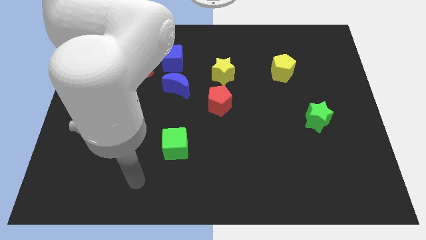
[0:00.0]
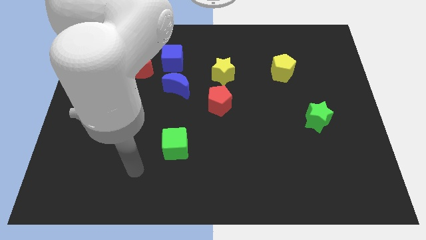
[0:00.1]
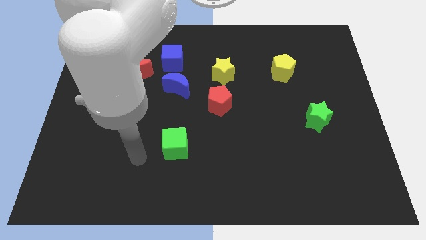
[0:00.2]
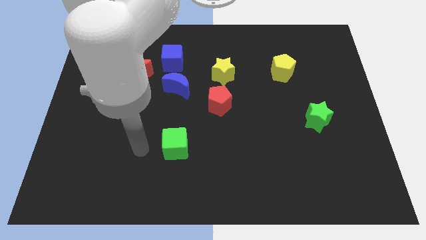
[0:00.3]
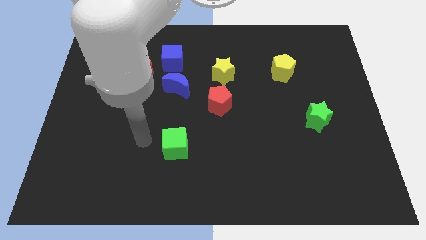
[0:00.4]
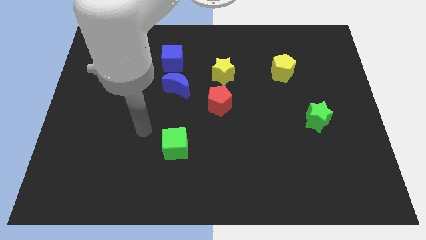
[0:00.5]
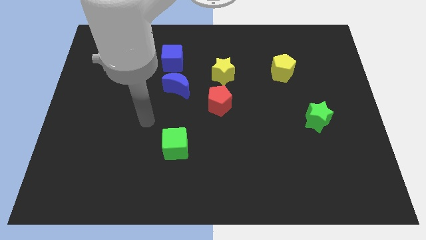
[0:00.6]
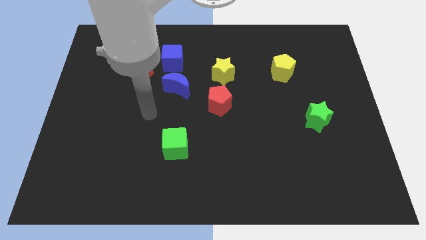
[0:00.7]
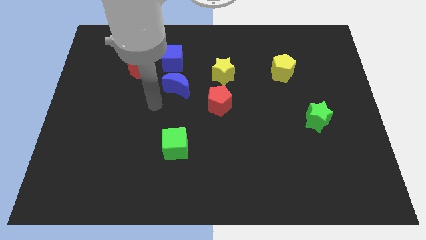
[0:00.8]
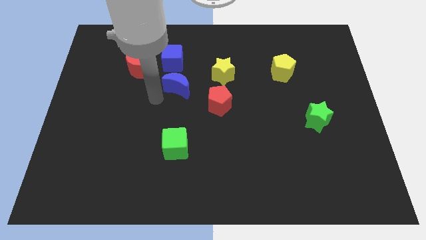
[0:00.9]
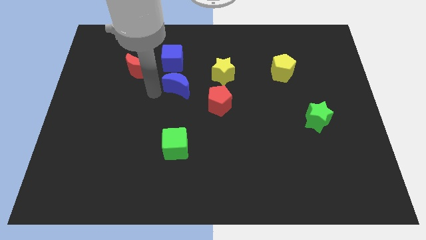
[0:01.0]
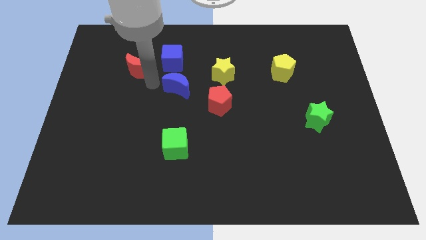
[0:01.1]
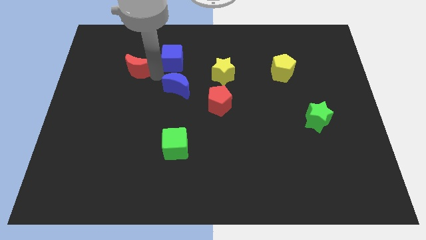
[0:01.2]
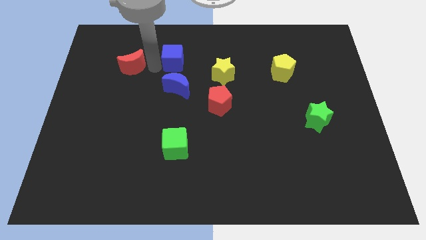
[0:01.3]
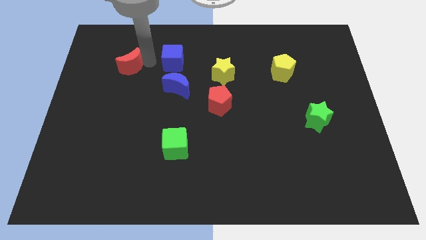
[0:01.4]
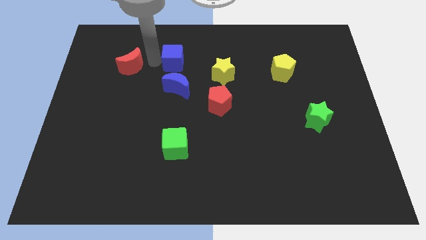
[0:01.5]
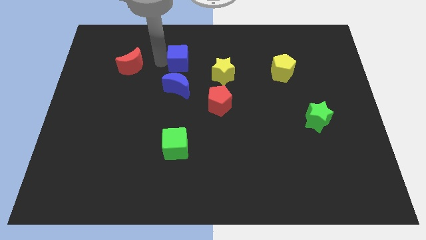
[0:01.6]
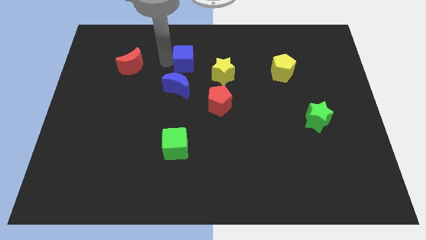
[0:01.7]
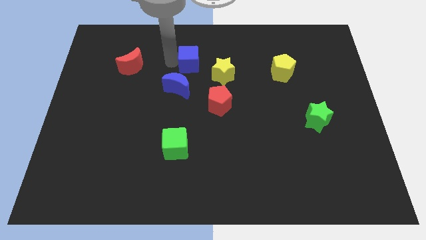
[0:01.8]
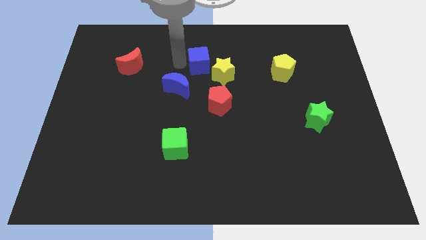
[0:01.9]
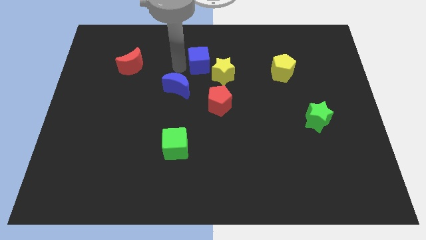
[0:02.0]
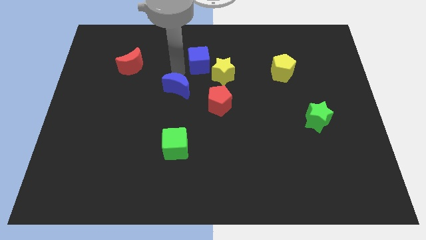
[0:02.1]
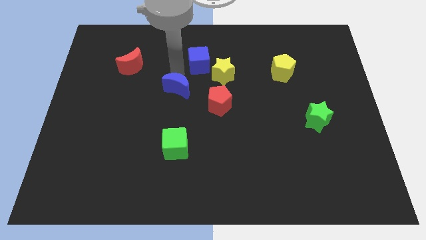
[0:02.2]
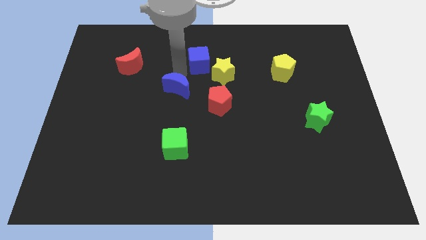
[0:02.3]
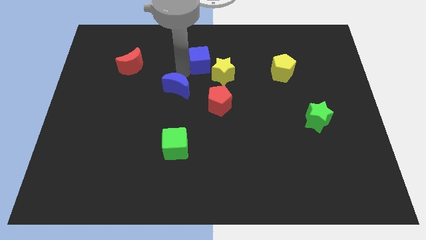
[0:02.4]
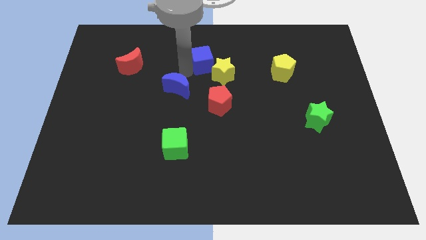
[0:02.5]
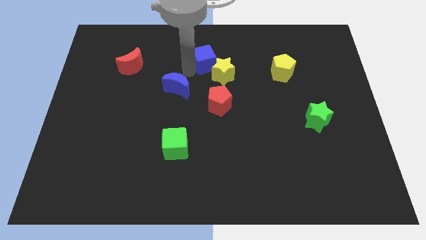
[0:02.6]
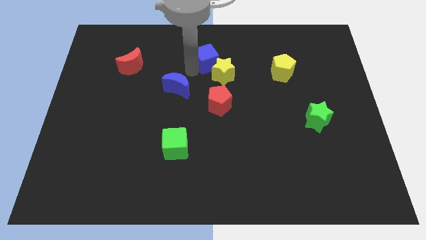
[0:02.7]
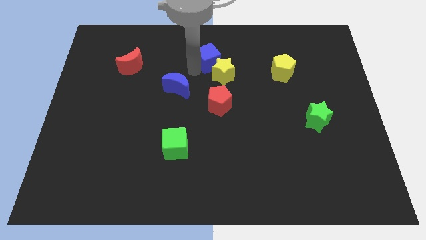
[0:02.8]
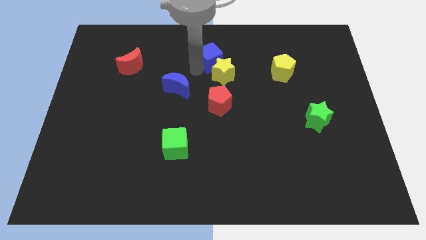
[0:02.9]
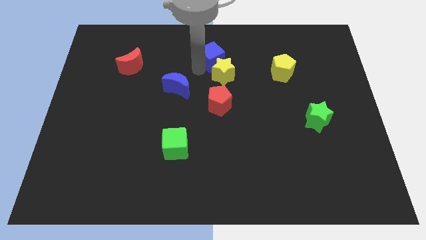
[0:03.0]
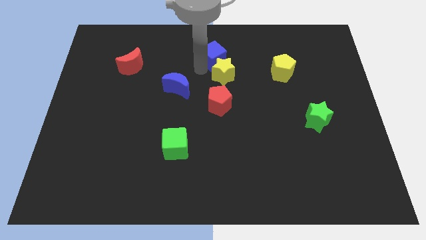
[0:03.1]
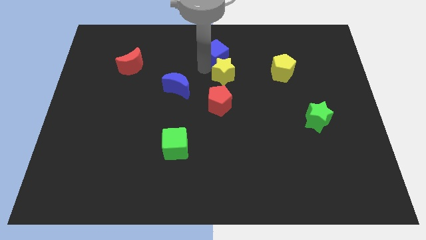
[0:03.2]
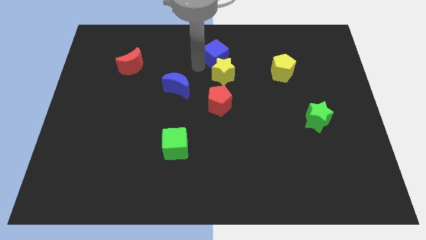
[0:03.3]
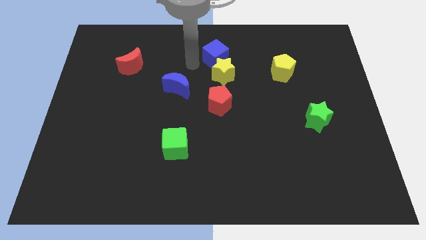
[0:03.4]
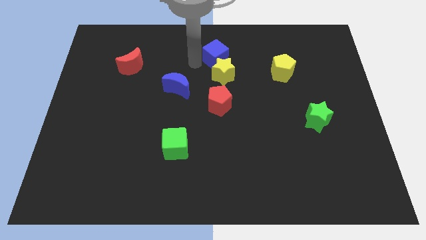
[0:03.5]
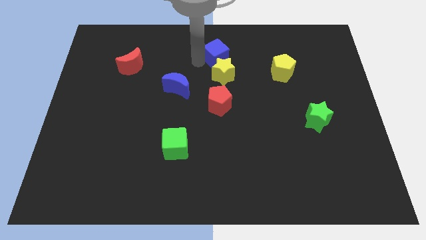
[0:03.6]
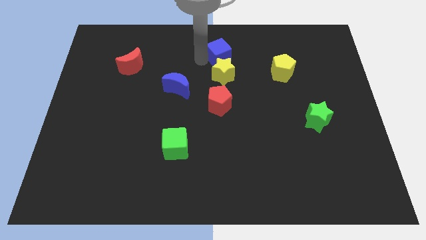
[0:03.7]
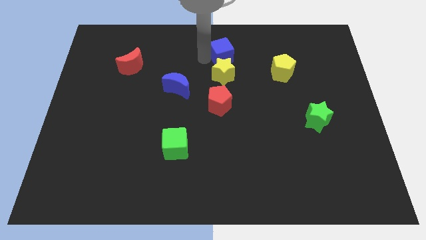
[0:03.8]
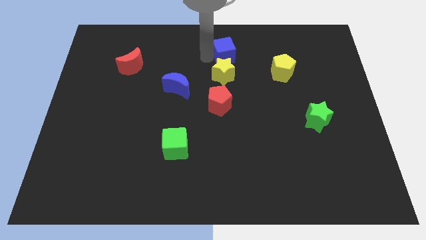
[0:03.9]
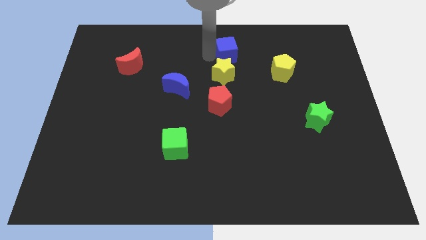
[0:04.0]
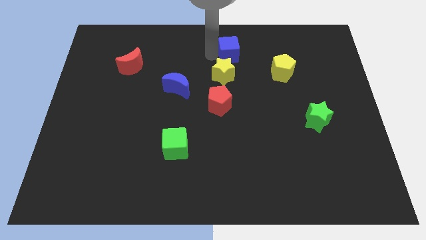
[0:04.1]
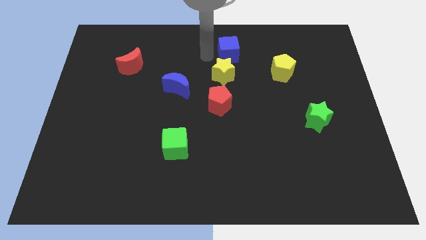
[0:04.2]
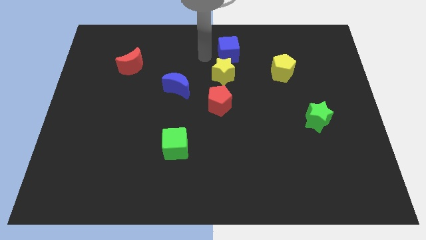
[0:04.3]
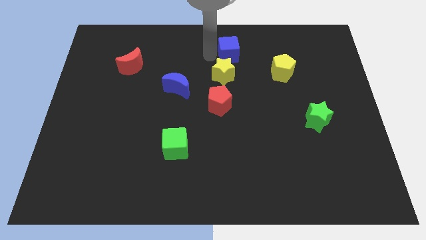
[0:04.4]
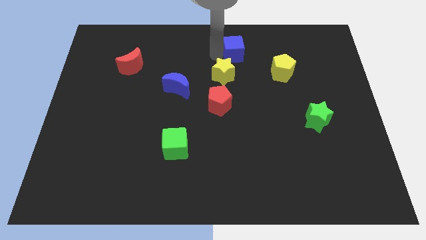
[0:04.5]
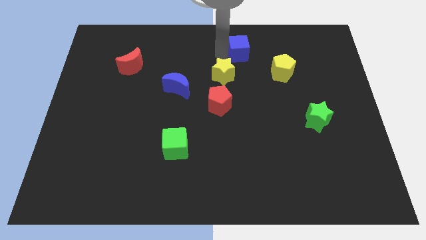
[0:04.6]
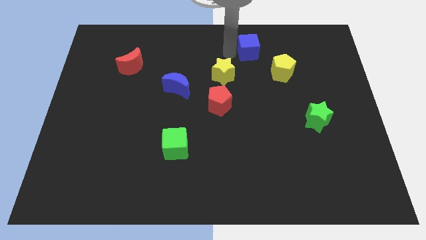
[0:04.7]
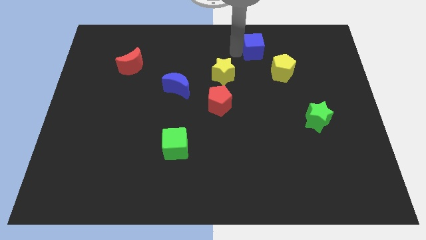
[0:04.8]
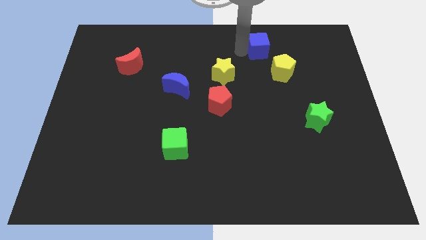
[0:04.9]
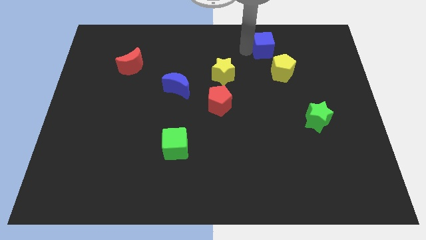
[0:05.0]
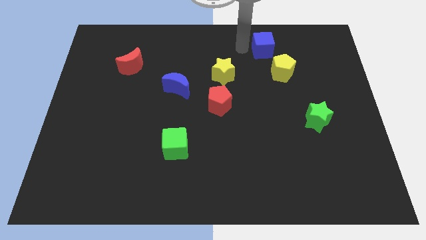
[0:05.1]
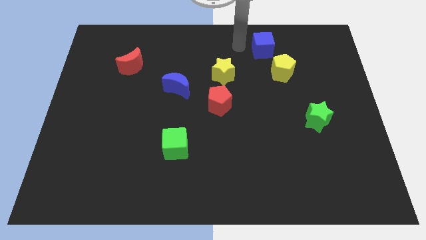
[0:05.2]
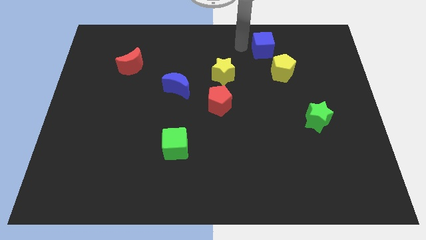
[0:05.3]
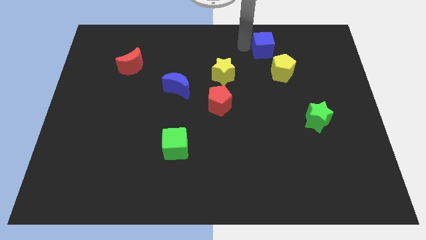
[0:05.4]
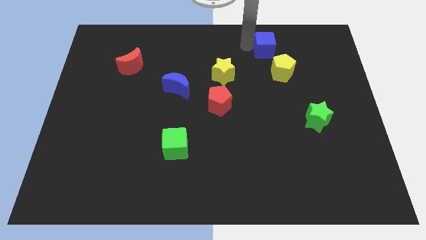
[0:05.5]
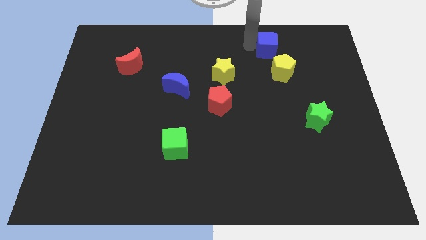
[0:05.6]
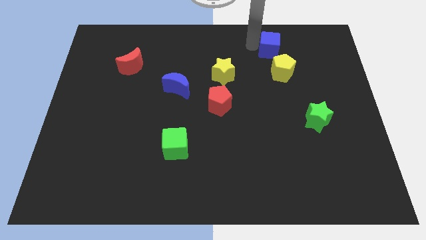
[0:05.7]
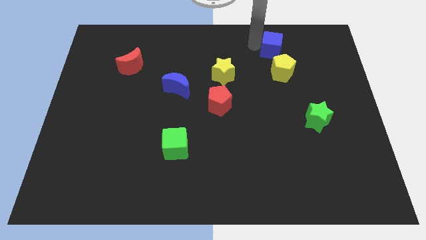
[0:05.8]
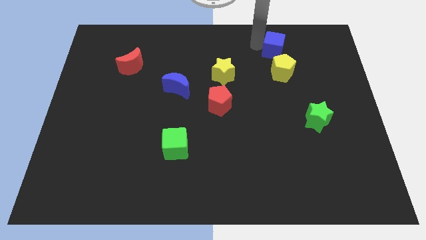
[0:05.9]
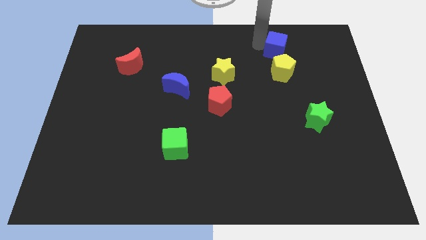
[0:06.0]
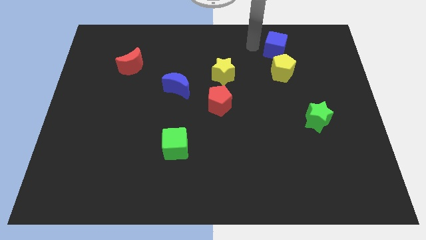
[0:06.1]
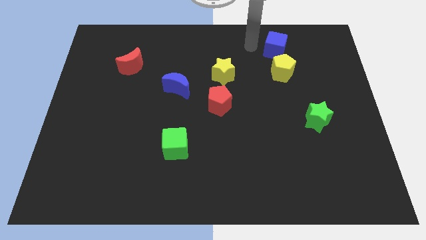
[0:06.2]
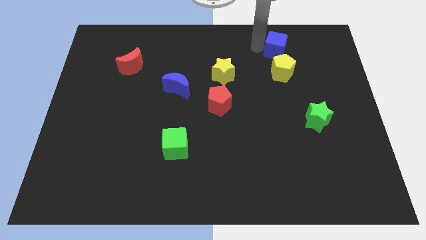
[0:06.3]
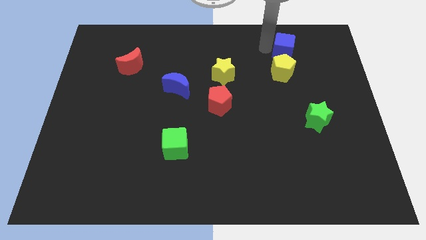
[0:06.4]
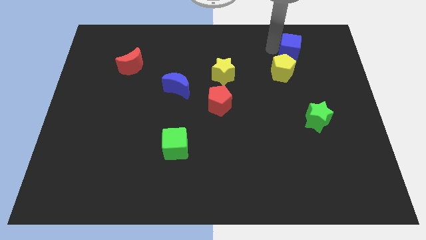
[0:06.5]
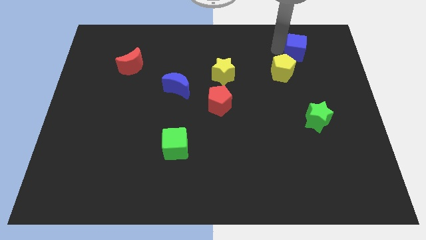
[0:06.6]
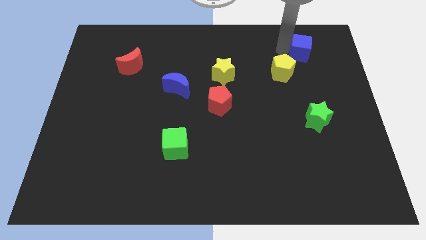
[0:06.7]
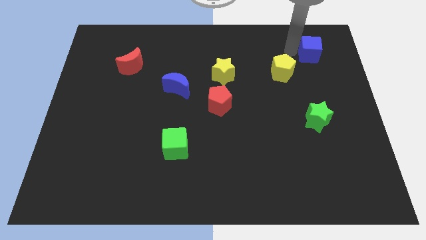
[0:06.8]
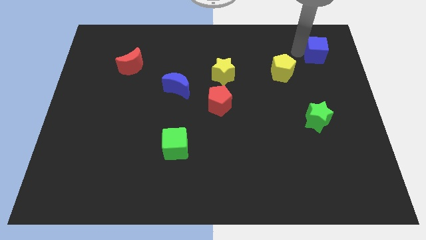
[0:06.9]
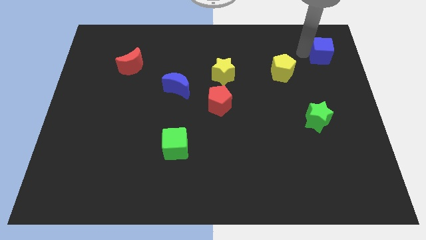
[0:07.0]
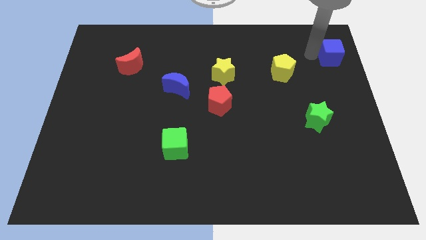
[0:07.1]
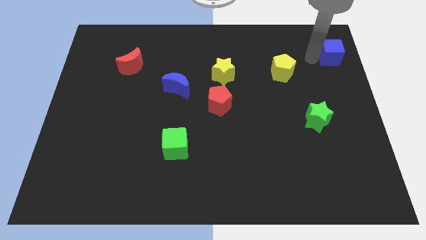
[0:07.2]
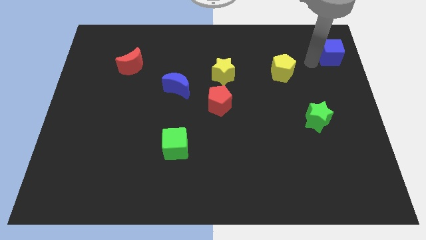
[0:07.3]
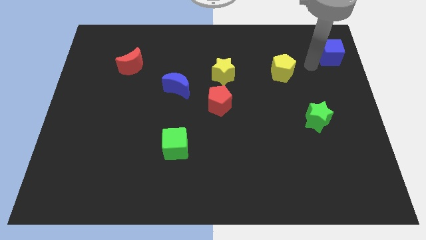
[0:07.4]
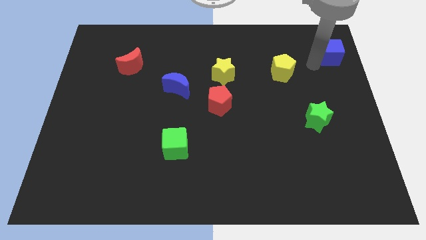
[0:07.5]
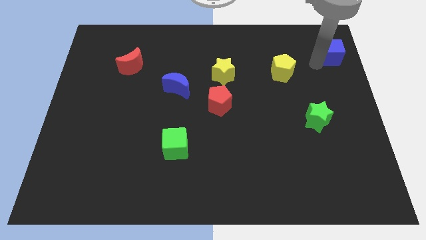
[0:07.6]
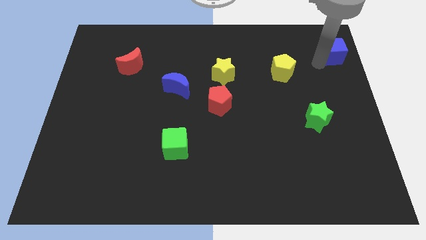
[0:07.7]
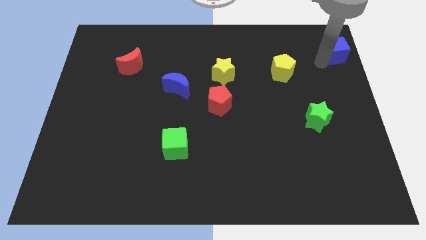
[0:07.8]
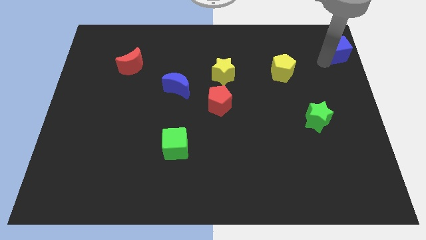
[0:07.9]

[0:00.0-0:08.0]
slide the blue cube to the upper right corner

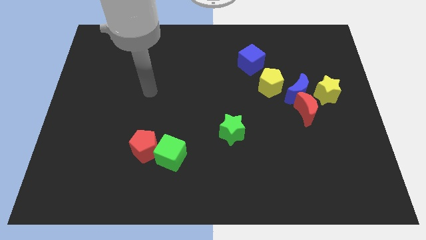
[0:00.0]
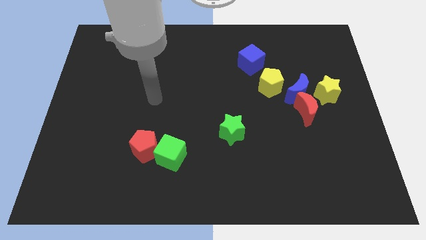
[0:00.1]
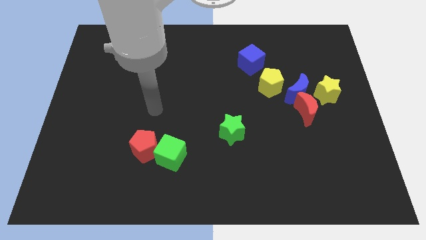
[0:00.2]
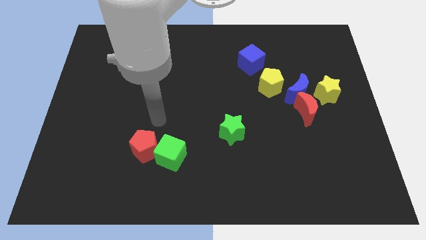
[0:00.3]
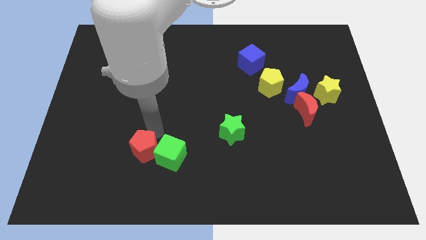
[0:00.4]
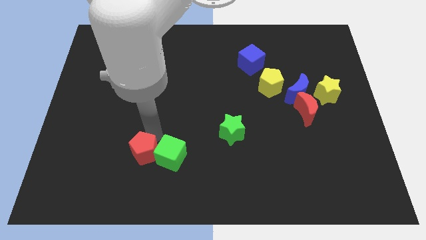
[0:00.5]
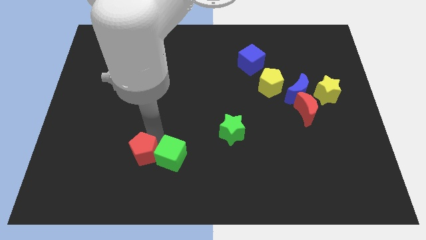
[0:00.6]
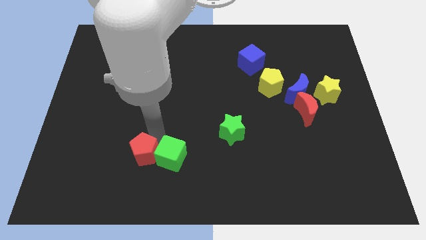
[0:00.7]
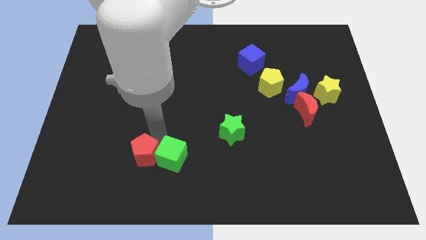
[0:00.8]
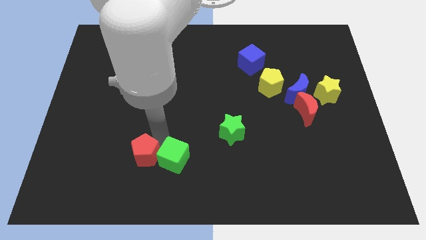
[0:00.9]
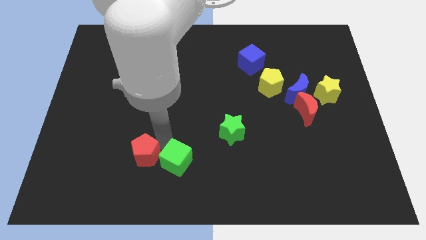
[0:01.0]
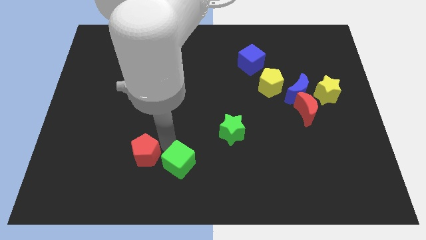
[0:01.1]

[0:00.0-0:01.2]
slide the green cube to the bottom
